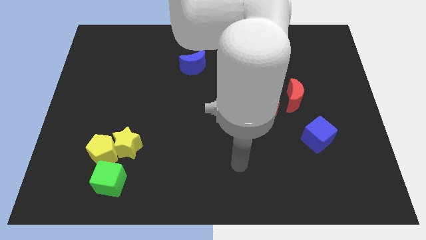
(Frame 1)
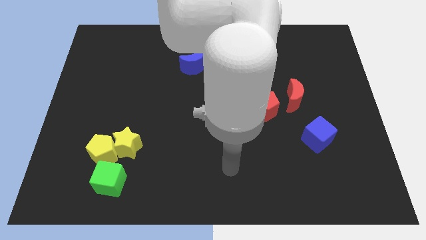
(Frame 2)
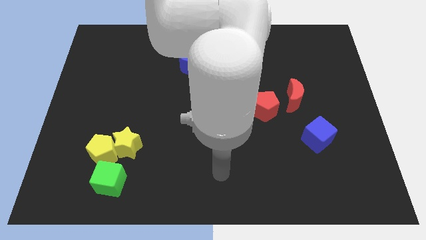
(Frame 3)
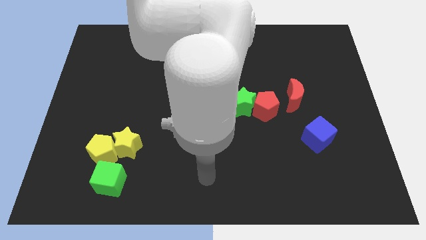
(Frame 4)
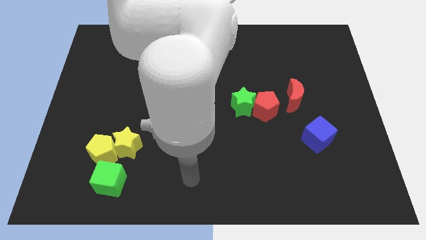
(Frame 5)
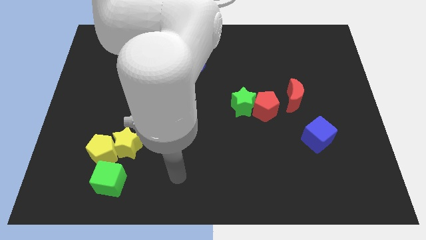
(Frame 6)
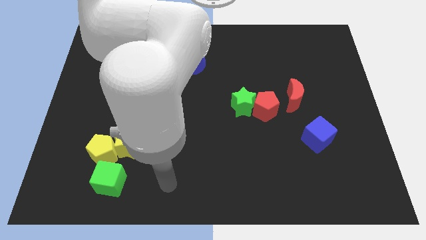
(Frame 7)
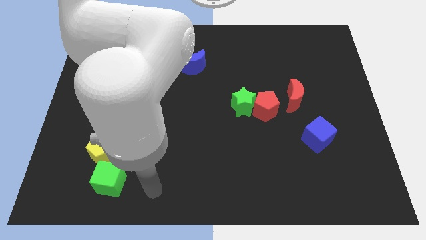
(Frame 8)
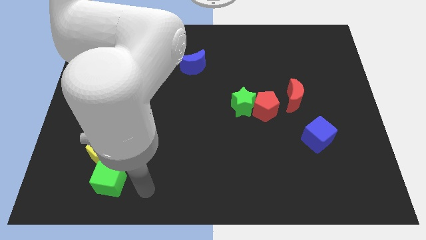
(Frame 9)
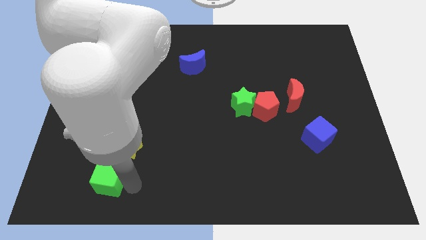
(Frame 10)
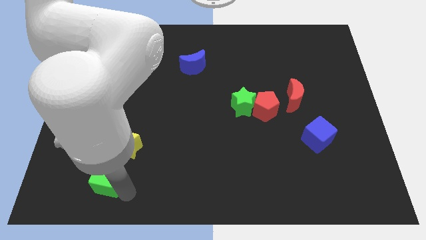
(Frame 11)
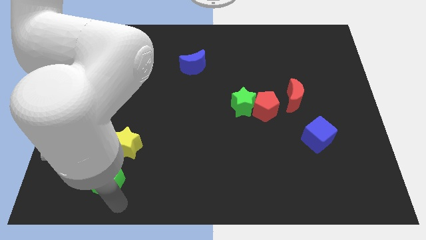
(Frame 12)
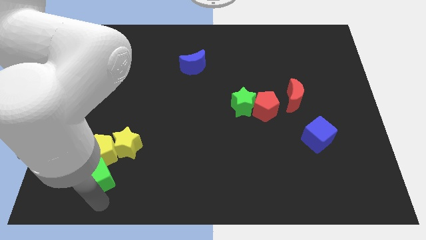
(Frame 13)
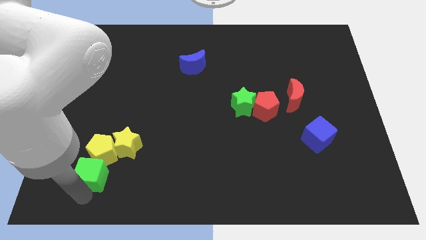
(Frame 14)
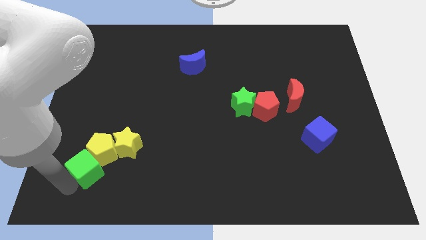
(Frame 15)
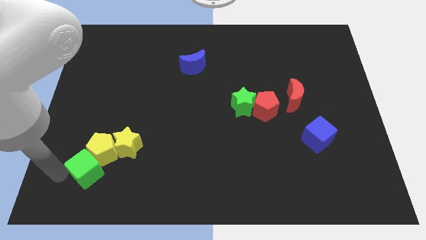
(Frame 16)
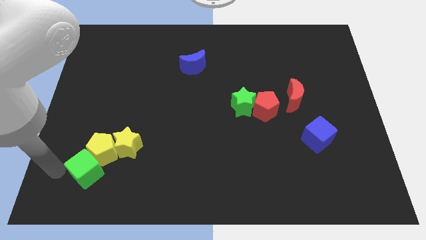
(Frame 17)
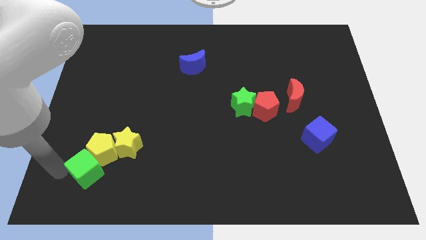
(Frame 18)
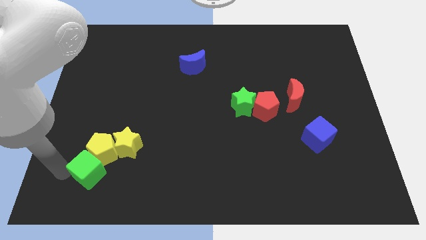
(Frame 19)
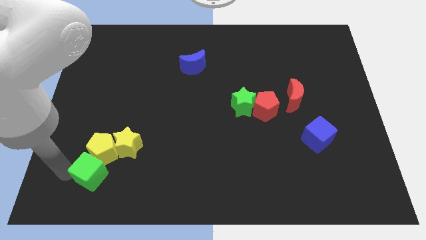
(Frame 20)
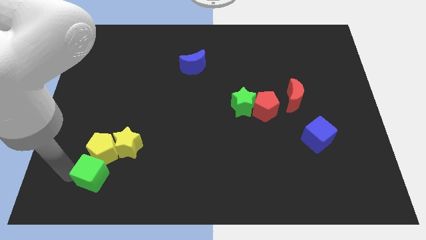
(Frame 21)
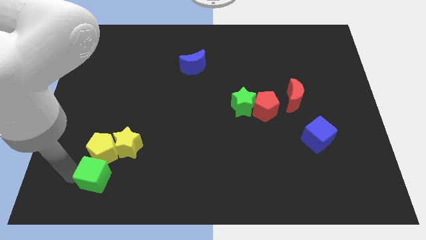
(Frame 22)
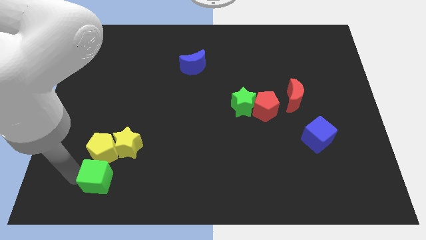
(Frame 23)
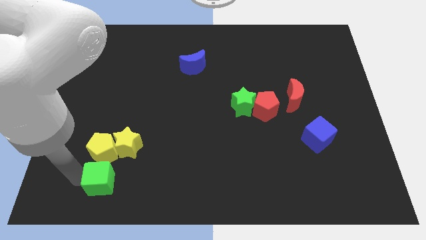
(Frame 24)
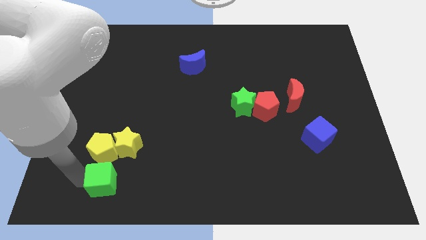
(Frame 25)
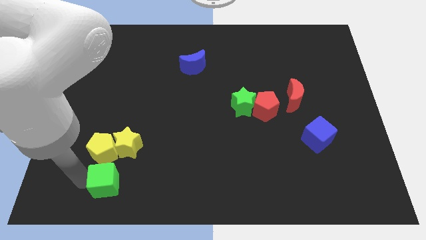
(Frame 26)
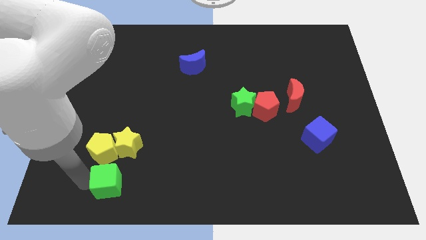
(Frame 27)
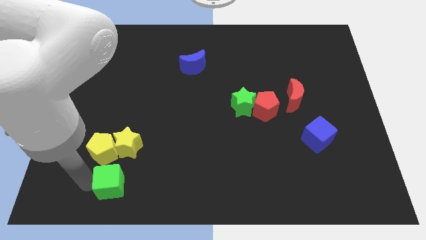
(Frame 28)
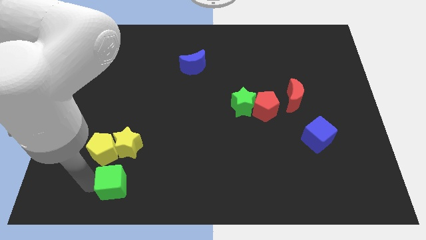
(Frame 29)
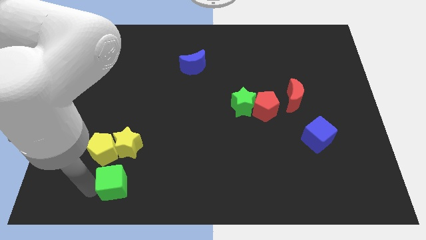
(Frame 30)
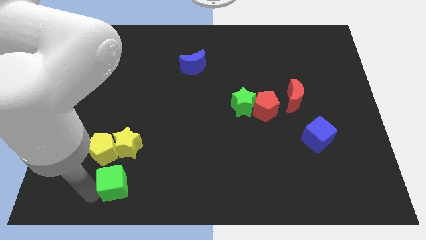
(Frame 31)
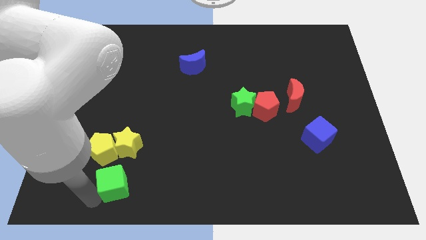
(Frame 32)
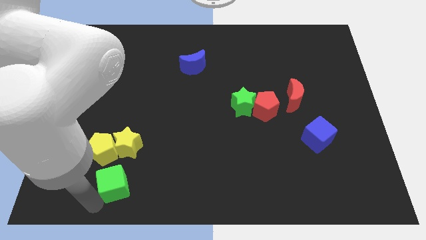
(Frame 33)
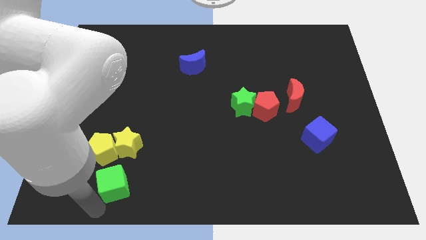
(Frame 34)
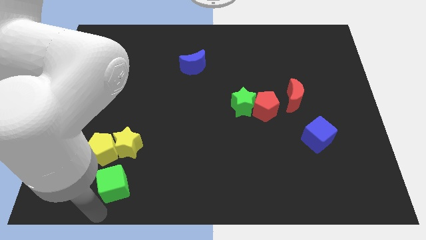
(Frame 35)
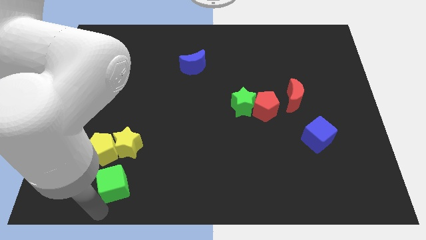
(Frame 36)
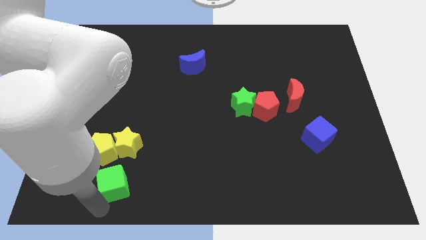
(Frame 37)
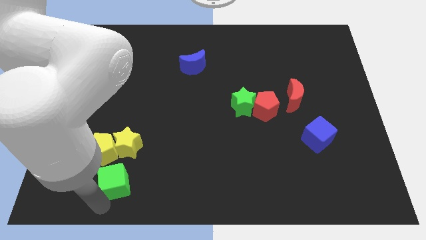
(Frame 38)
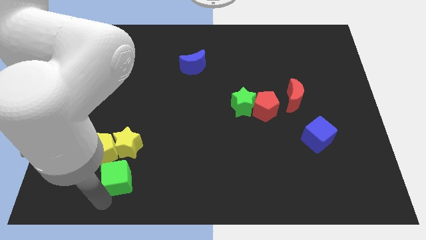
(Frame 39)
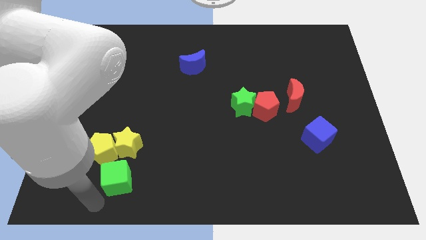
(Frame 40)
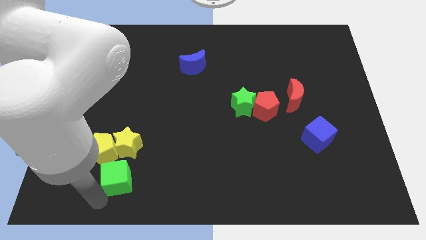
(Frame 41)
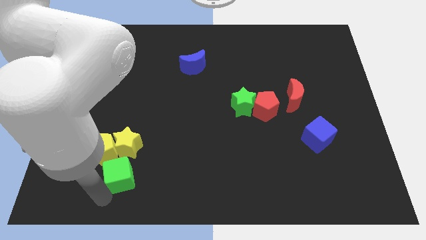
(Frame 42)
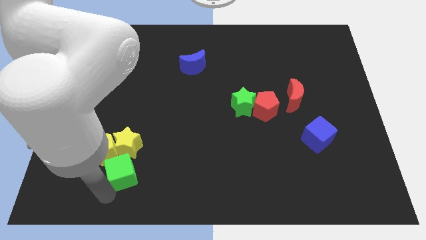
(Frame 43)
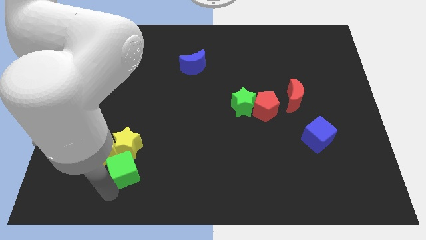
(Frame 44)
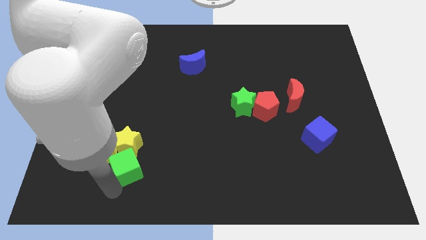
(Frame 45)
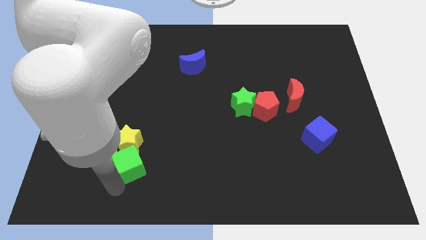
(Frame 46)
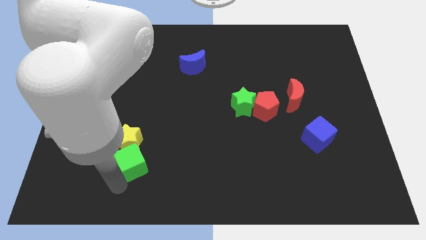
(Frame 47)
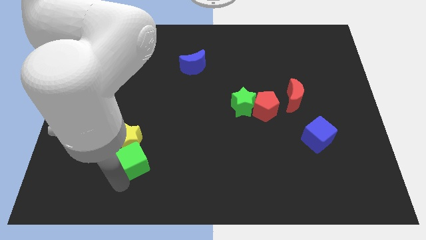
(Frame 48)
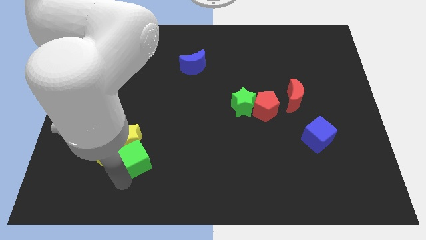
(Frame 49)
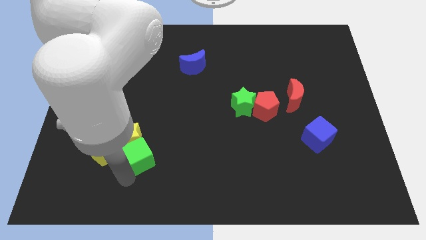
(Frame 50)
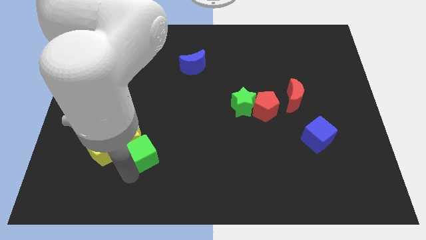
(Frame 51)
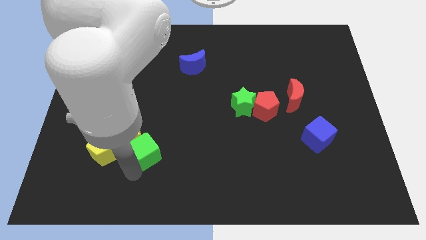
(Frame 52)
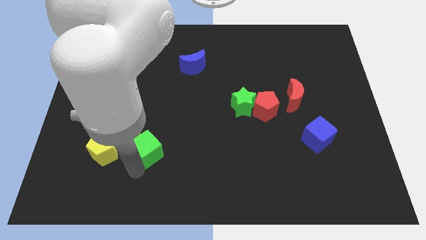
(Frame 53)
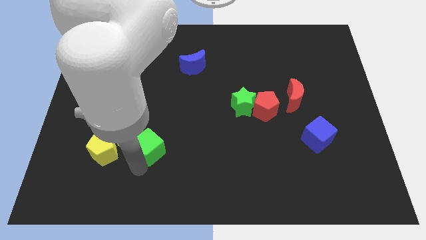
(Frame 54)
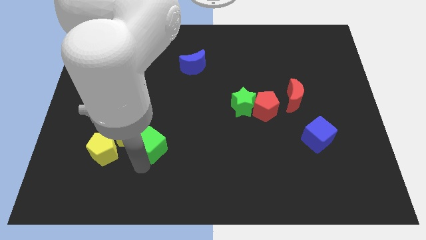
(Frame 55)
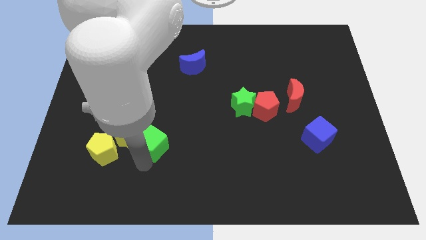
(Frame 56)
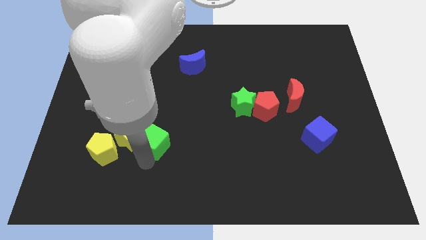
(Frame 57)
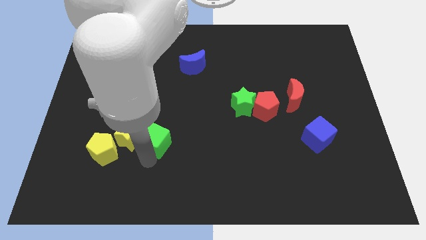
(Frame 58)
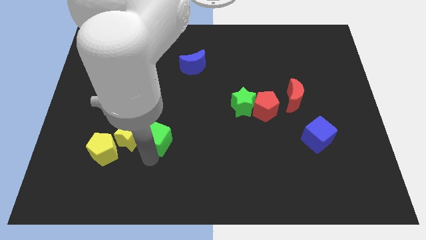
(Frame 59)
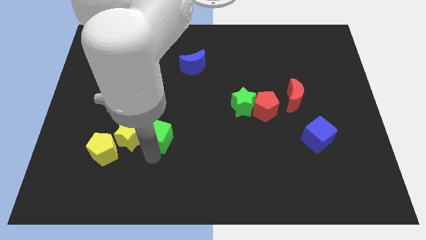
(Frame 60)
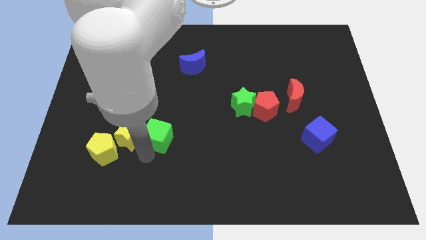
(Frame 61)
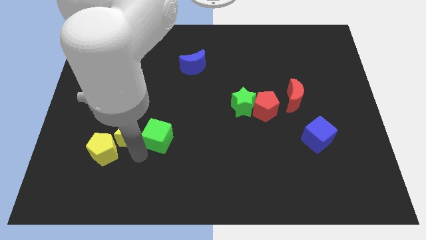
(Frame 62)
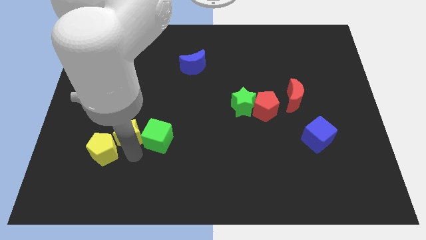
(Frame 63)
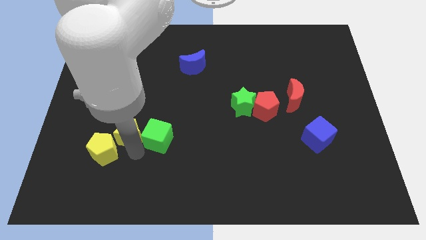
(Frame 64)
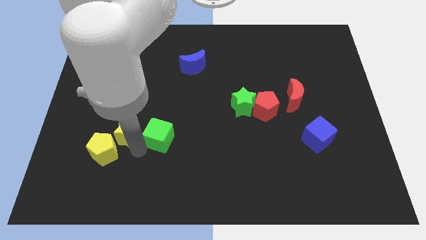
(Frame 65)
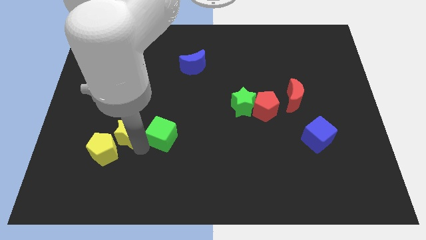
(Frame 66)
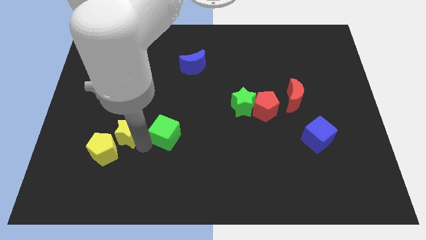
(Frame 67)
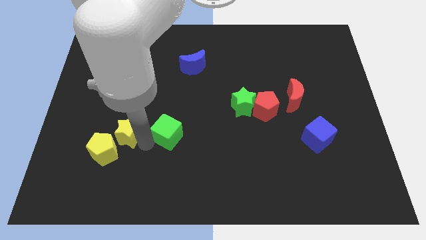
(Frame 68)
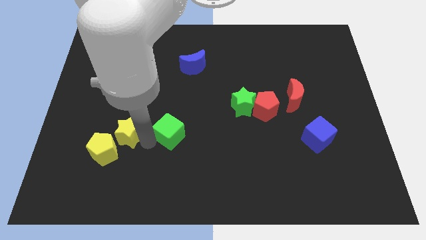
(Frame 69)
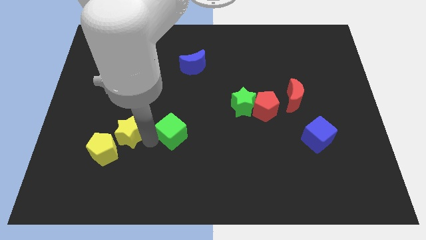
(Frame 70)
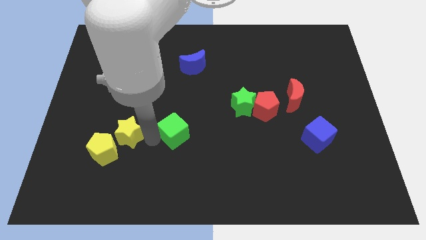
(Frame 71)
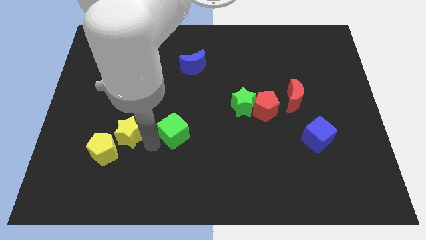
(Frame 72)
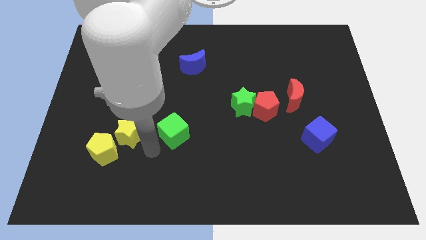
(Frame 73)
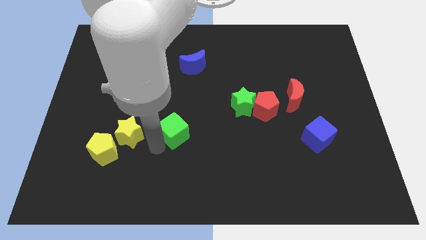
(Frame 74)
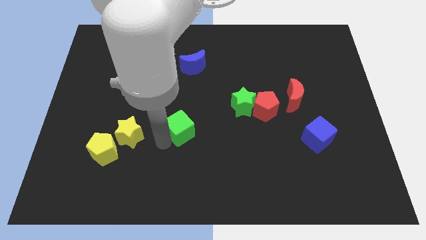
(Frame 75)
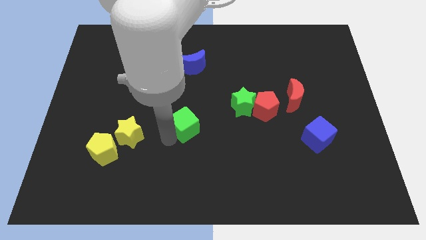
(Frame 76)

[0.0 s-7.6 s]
push the green cube diagonally up and right

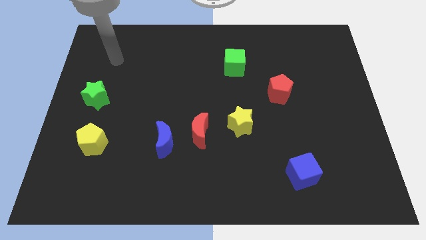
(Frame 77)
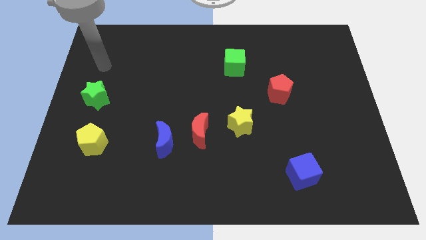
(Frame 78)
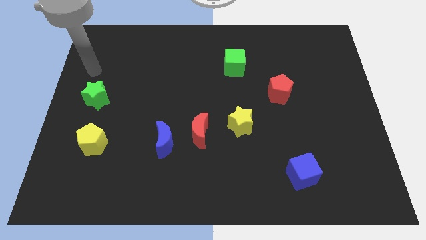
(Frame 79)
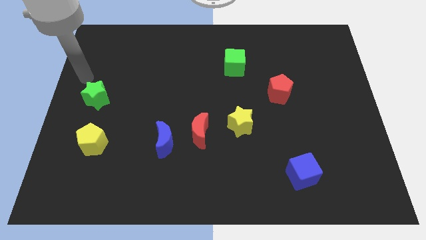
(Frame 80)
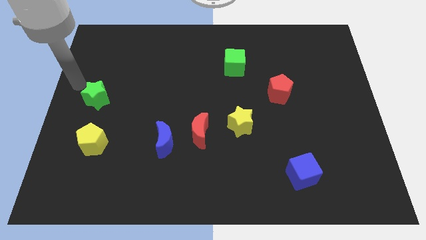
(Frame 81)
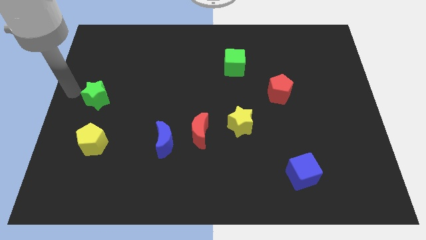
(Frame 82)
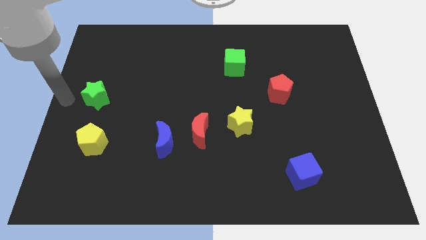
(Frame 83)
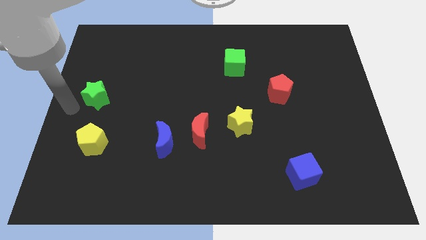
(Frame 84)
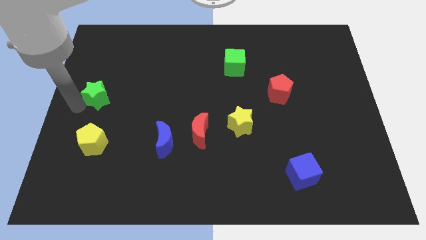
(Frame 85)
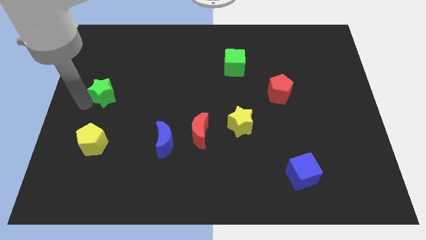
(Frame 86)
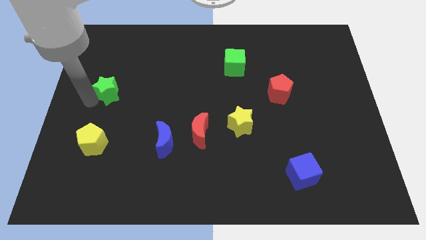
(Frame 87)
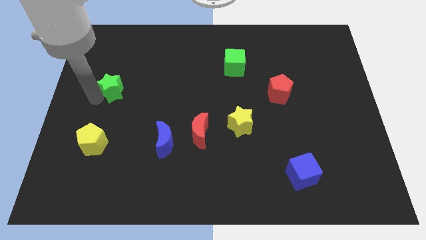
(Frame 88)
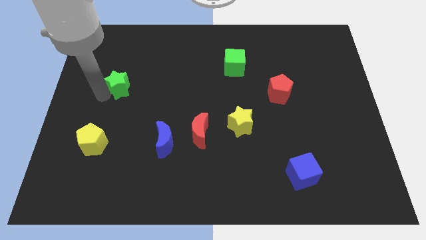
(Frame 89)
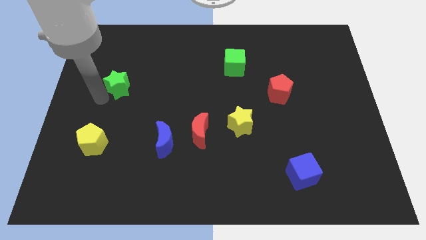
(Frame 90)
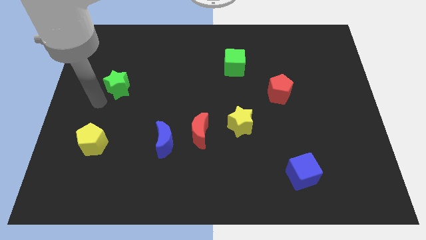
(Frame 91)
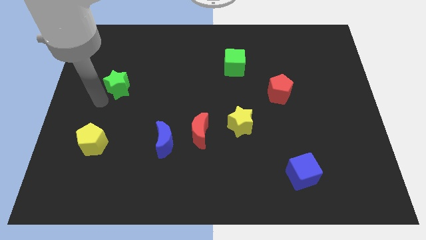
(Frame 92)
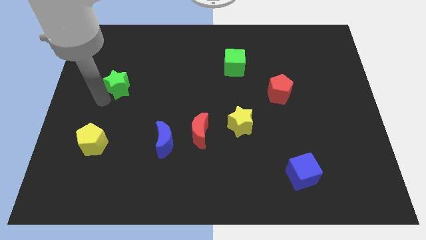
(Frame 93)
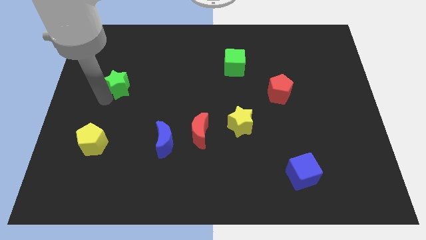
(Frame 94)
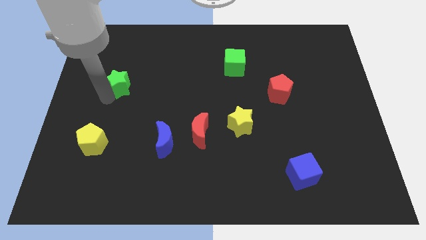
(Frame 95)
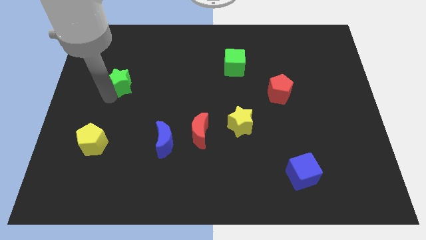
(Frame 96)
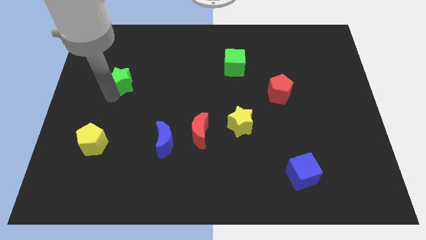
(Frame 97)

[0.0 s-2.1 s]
slightly slide the green star up and then right
